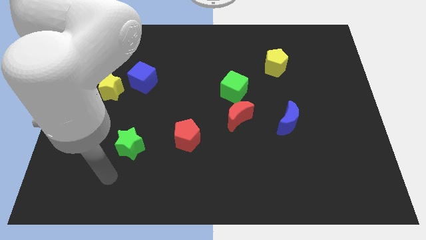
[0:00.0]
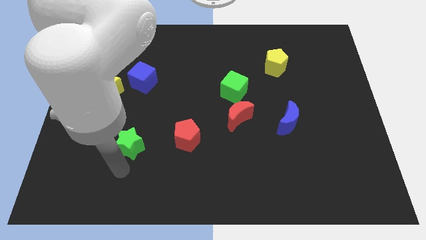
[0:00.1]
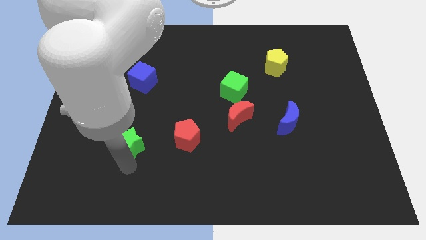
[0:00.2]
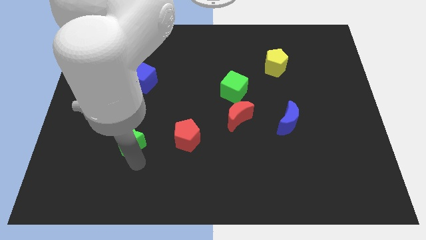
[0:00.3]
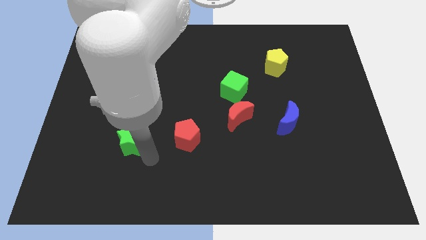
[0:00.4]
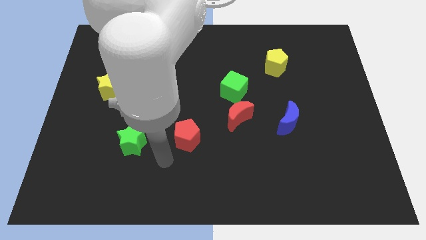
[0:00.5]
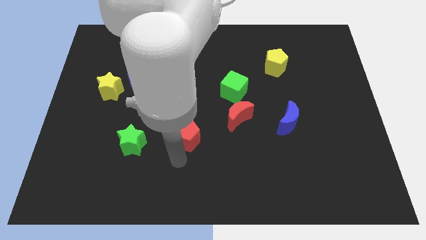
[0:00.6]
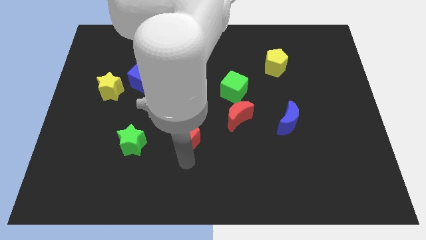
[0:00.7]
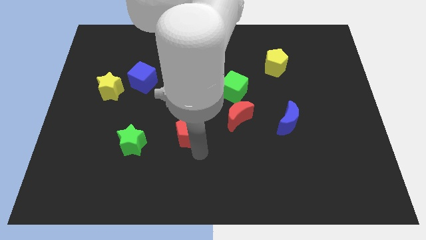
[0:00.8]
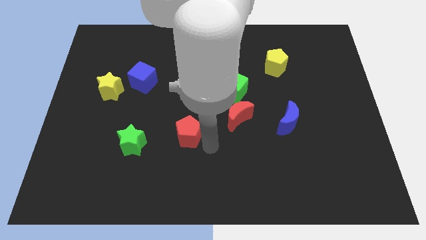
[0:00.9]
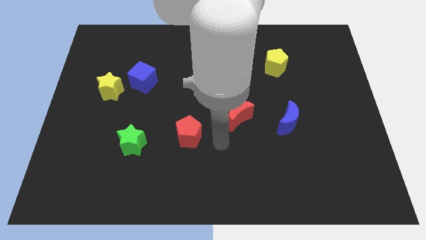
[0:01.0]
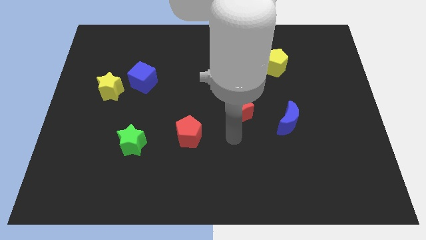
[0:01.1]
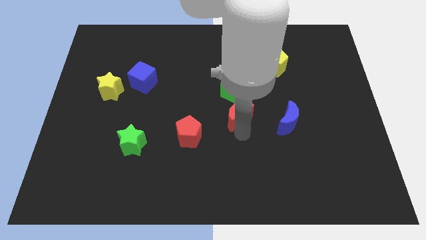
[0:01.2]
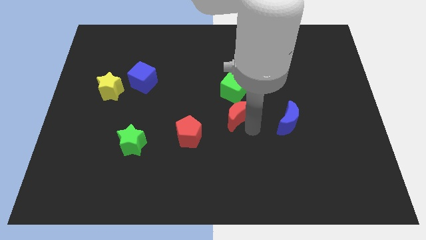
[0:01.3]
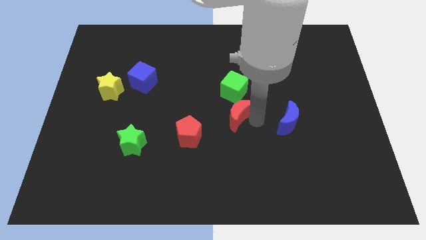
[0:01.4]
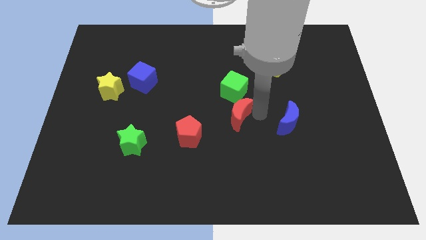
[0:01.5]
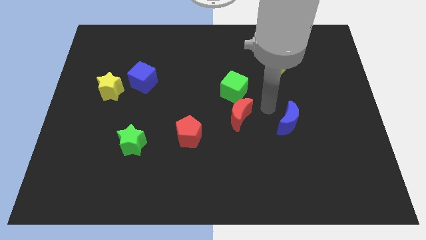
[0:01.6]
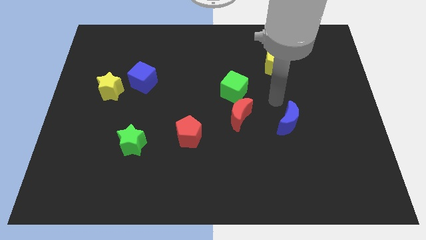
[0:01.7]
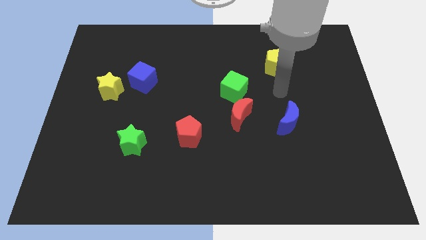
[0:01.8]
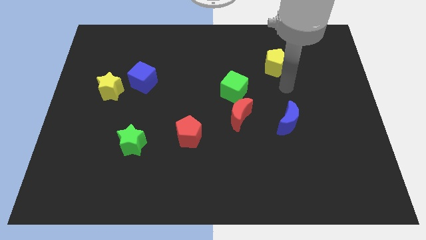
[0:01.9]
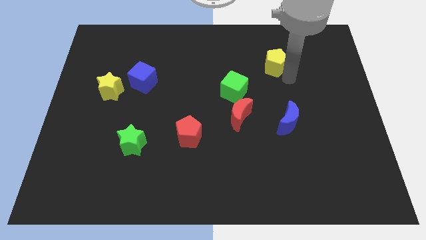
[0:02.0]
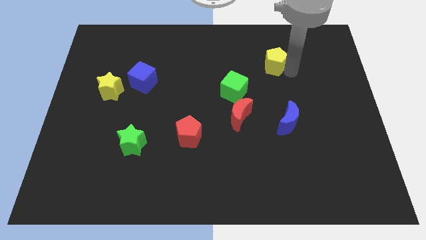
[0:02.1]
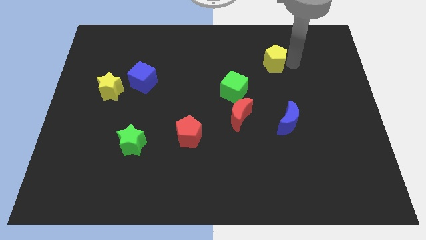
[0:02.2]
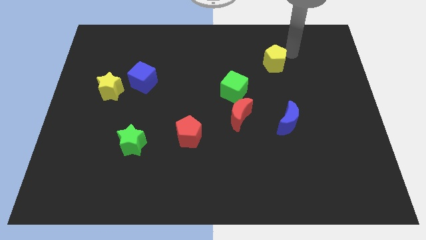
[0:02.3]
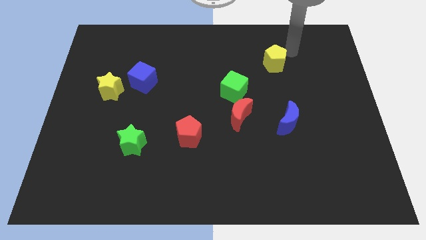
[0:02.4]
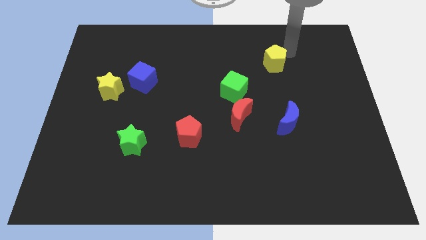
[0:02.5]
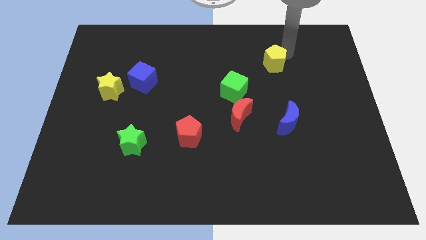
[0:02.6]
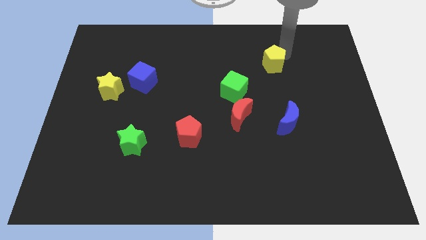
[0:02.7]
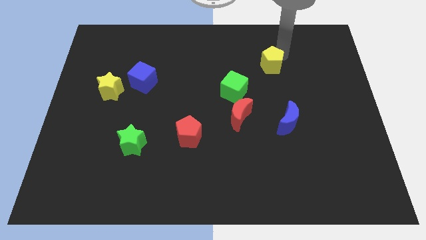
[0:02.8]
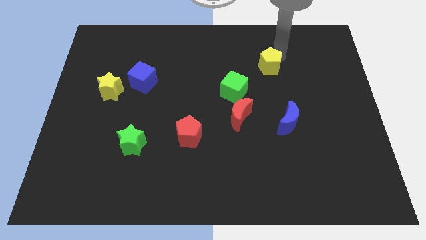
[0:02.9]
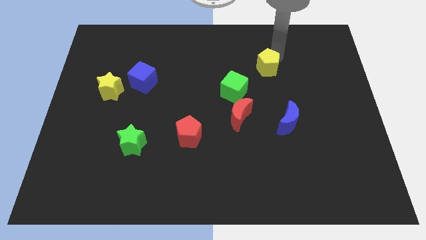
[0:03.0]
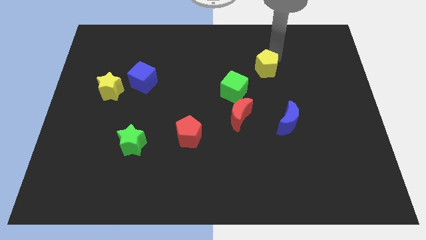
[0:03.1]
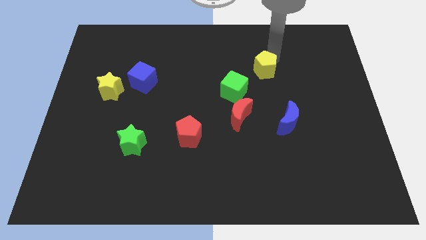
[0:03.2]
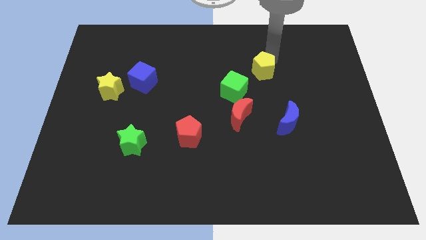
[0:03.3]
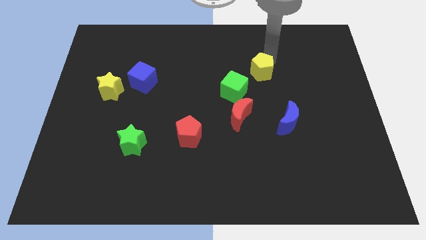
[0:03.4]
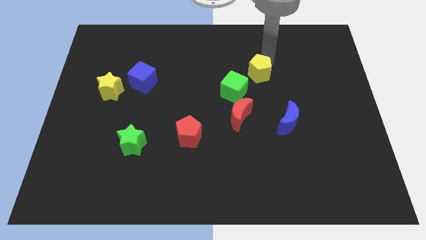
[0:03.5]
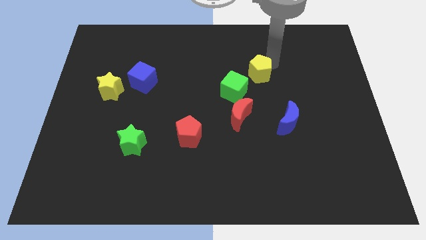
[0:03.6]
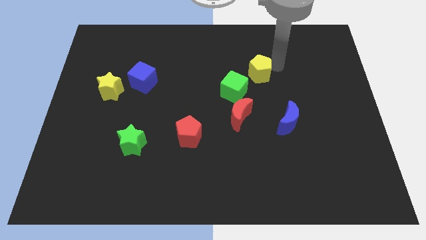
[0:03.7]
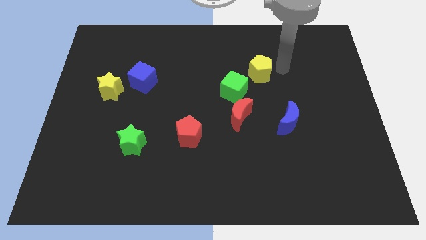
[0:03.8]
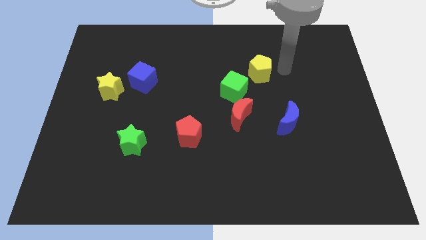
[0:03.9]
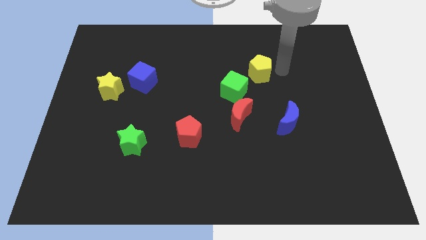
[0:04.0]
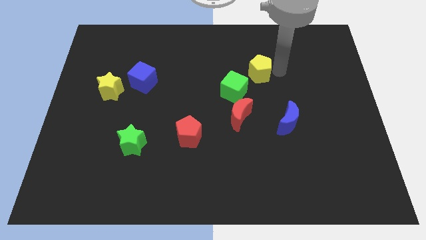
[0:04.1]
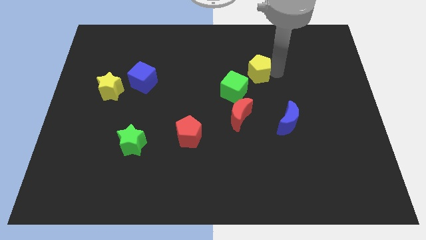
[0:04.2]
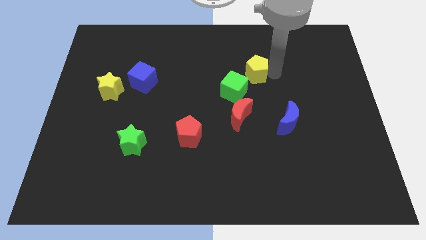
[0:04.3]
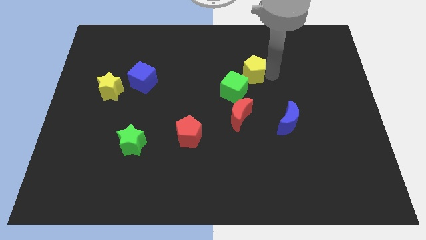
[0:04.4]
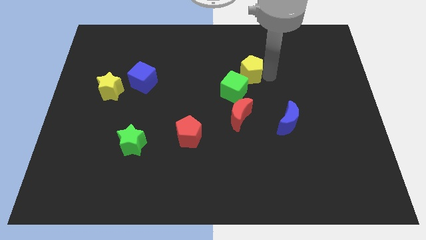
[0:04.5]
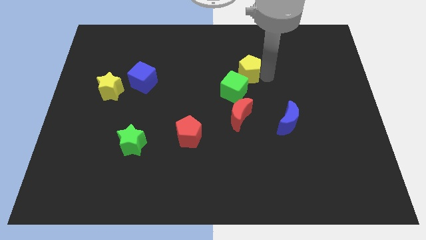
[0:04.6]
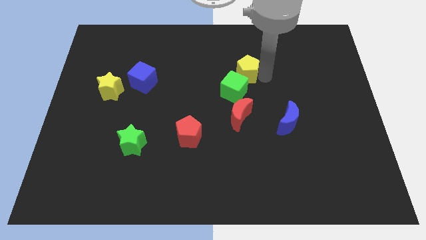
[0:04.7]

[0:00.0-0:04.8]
move the yellow pentagon downwards and then left a little

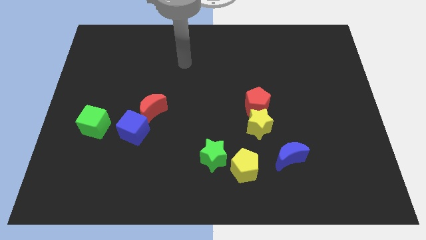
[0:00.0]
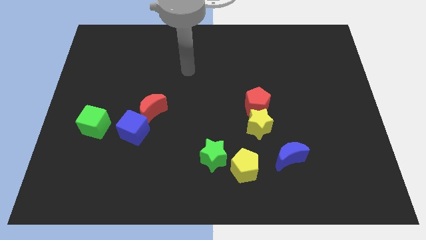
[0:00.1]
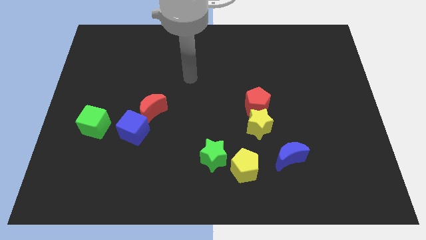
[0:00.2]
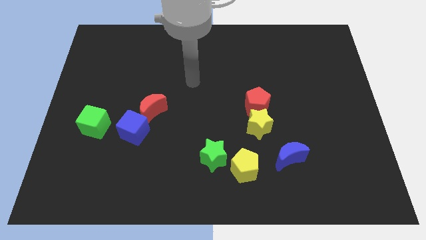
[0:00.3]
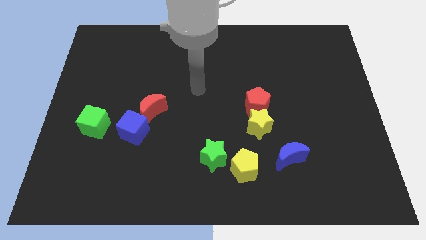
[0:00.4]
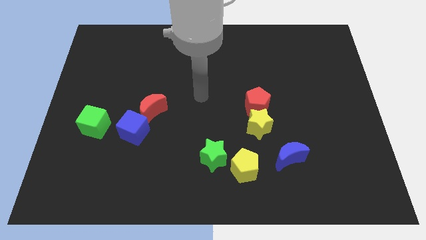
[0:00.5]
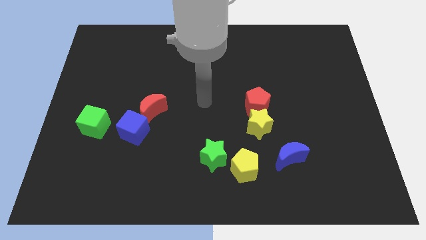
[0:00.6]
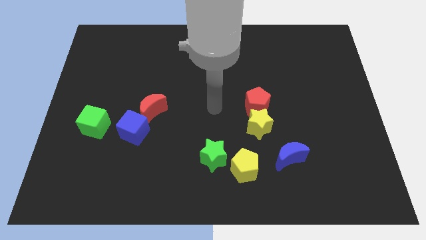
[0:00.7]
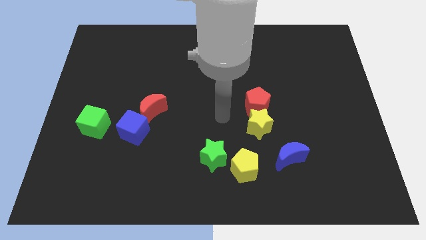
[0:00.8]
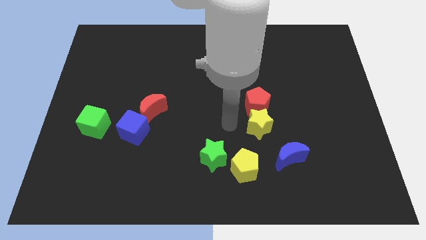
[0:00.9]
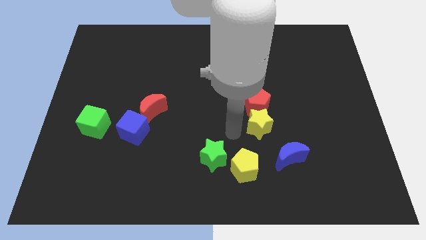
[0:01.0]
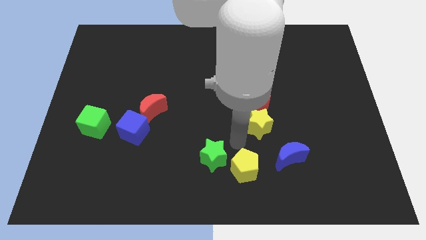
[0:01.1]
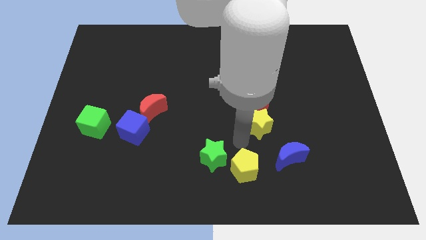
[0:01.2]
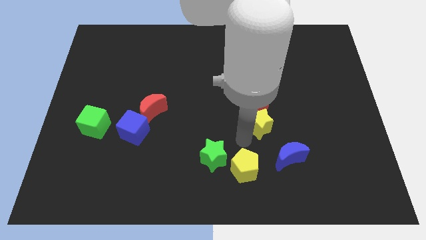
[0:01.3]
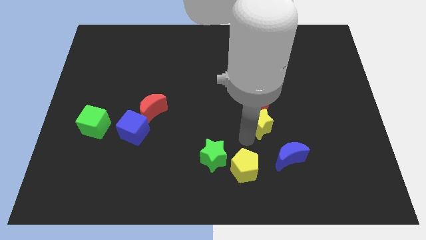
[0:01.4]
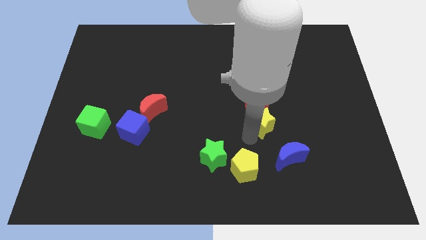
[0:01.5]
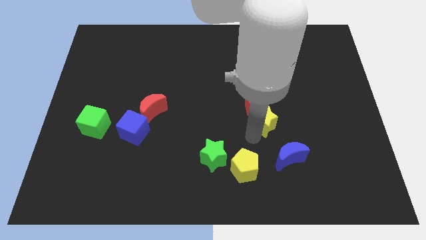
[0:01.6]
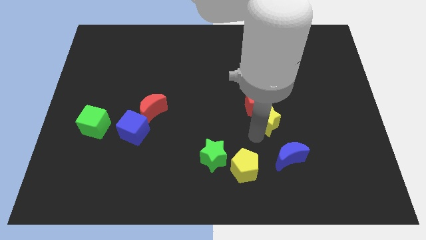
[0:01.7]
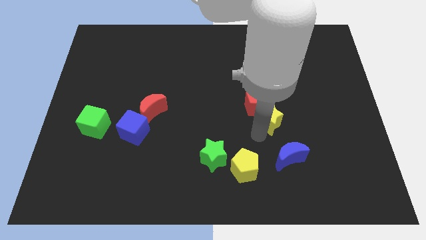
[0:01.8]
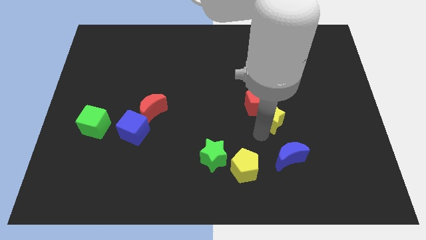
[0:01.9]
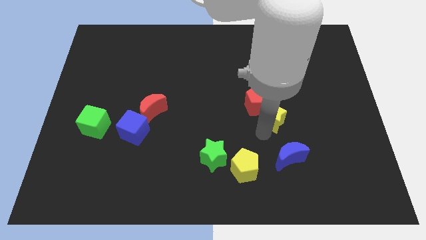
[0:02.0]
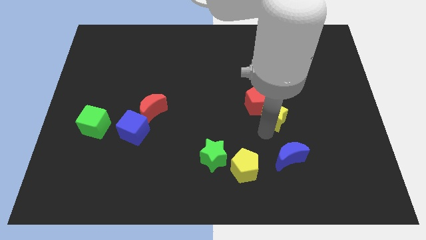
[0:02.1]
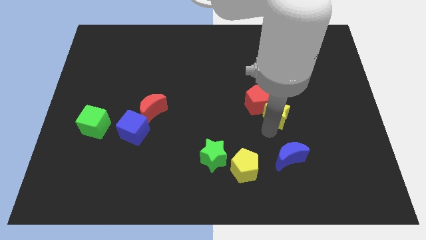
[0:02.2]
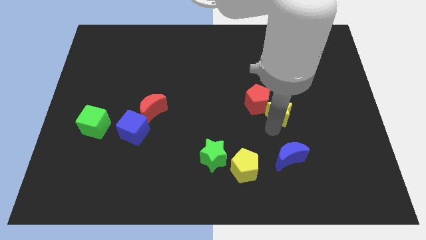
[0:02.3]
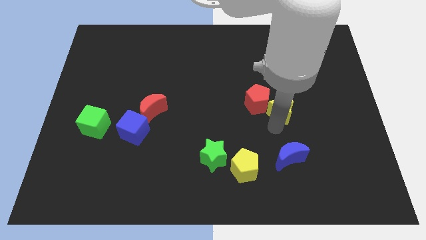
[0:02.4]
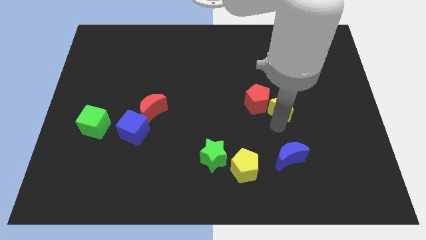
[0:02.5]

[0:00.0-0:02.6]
slide the yellow star up and to the right a bit

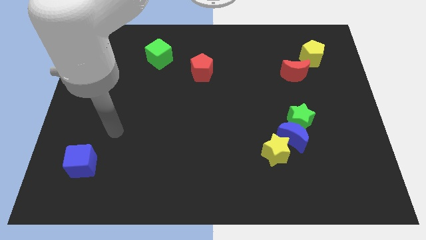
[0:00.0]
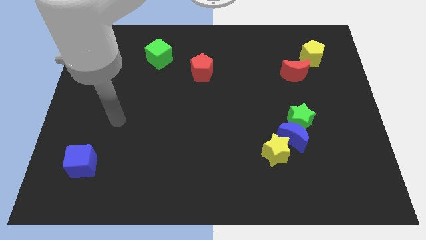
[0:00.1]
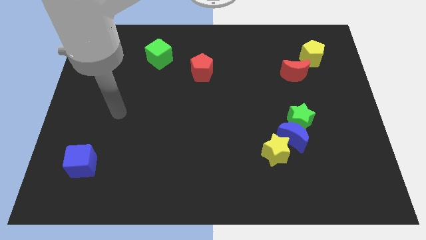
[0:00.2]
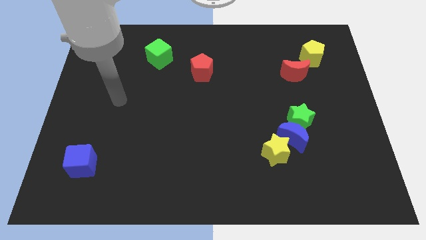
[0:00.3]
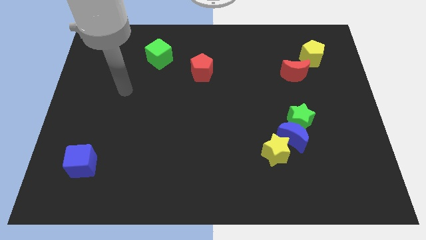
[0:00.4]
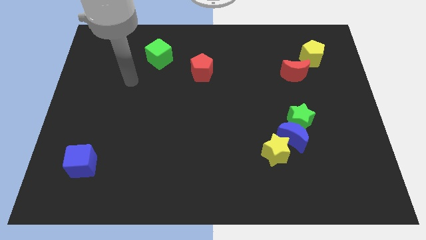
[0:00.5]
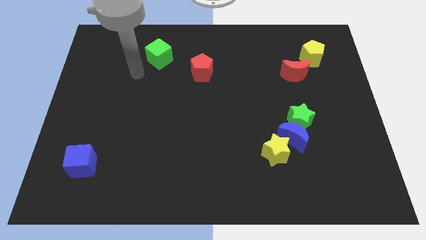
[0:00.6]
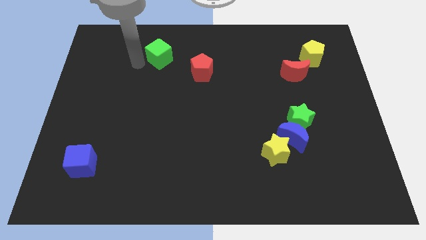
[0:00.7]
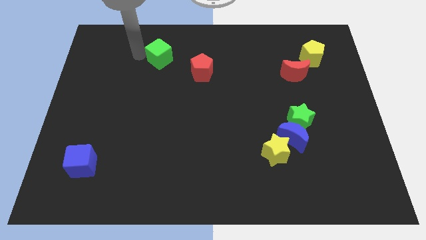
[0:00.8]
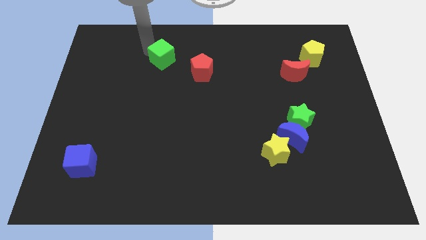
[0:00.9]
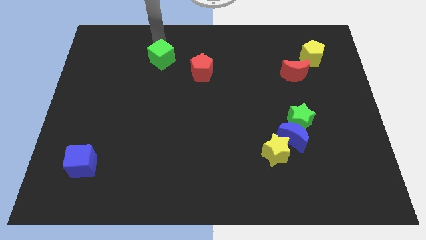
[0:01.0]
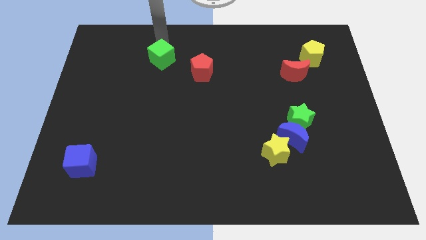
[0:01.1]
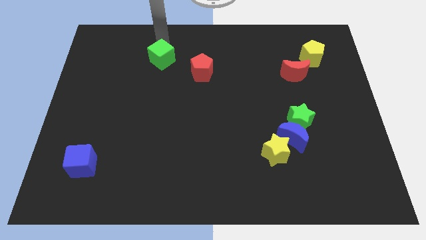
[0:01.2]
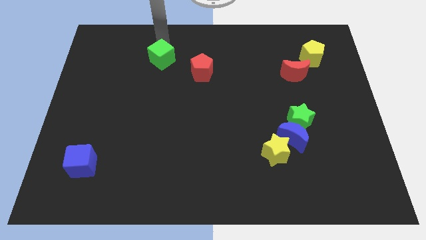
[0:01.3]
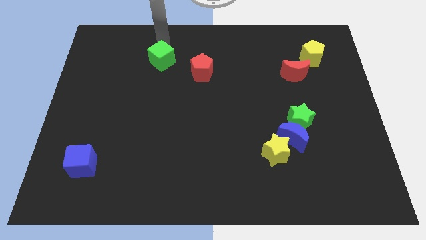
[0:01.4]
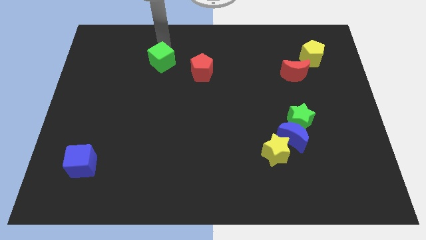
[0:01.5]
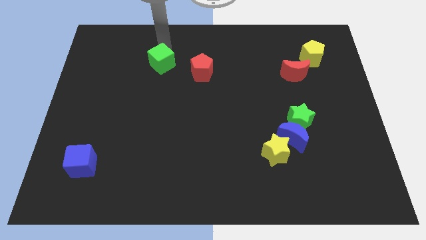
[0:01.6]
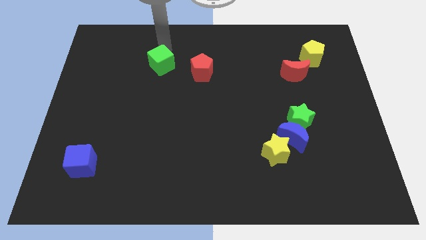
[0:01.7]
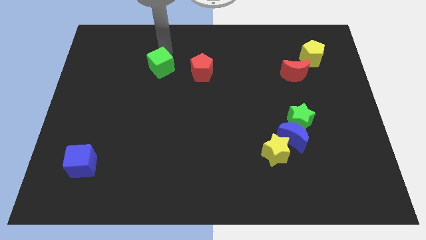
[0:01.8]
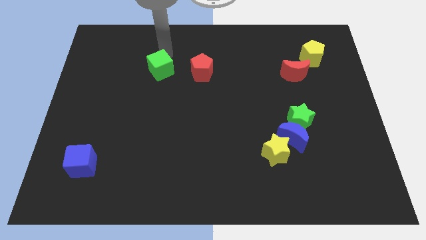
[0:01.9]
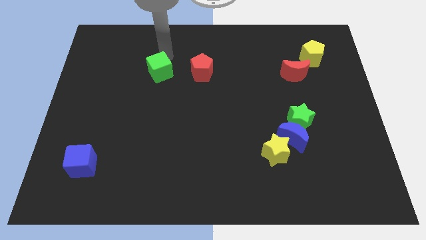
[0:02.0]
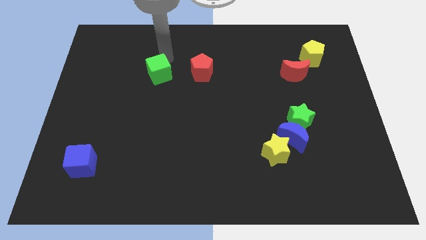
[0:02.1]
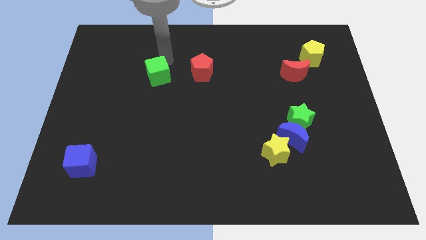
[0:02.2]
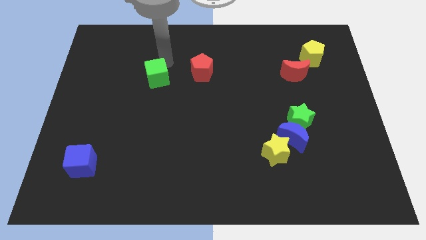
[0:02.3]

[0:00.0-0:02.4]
slide the green cube a little bit downwards
